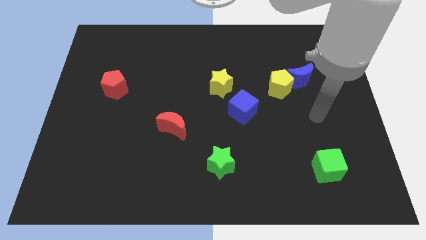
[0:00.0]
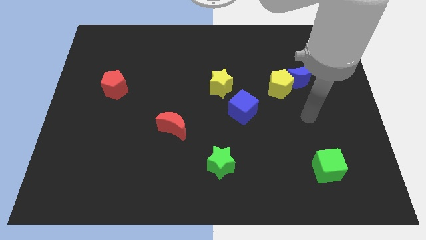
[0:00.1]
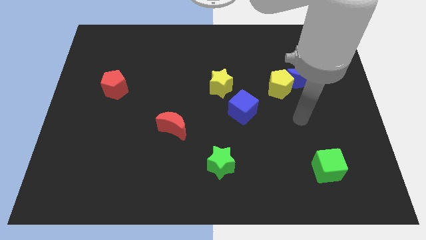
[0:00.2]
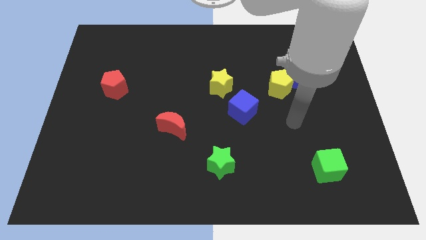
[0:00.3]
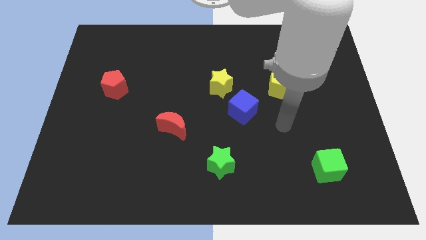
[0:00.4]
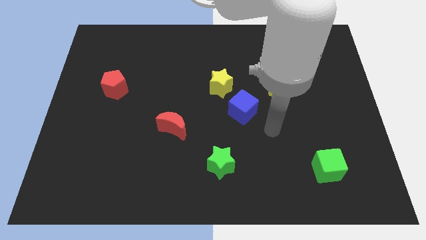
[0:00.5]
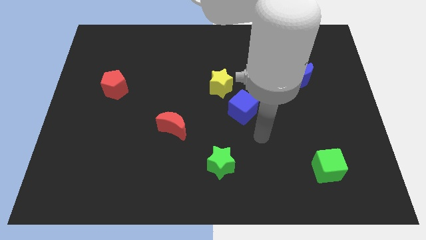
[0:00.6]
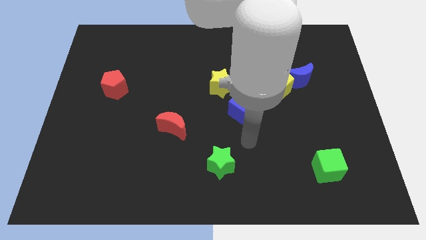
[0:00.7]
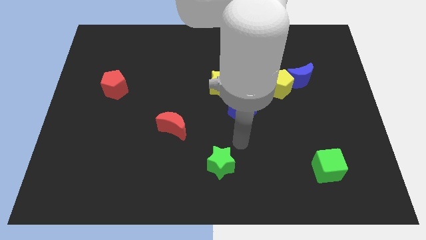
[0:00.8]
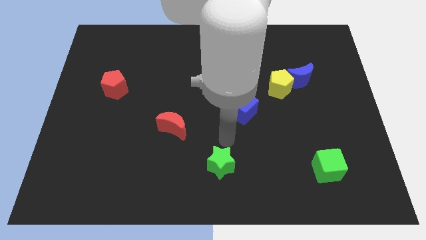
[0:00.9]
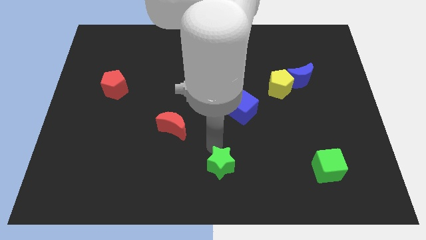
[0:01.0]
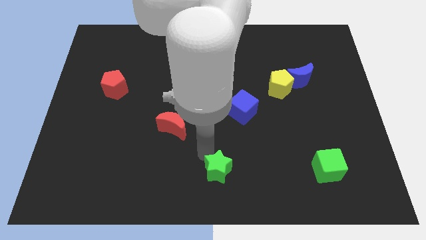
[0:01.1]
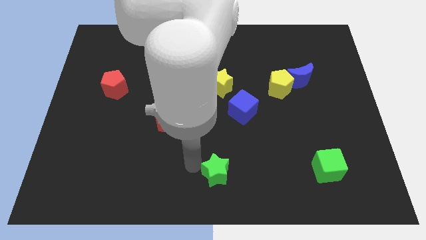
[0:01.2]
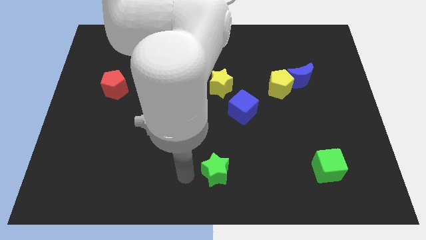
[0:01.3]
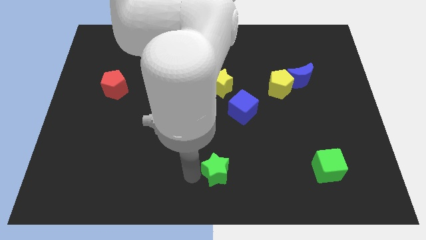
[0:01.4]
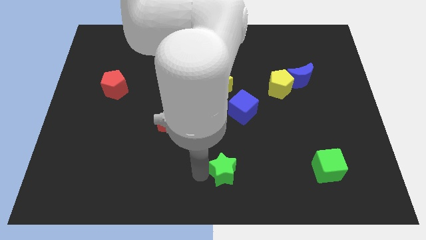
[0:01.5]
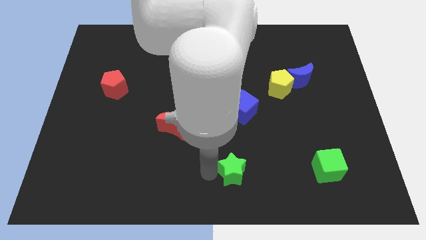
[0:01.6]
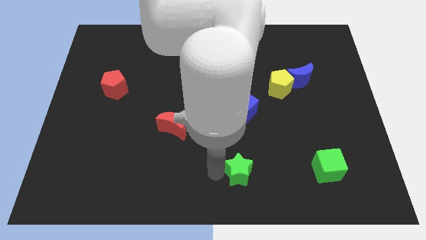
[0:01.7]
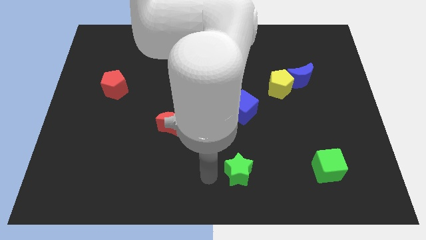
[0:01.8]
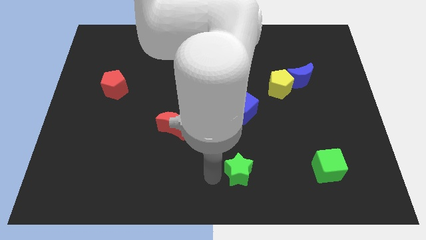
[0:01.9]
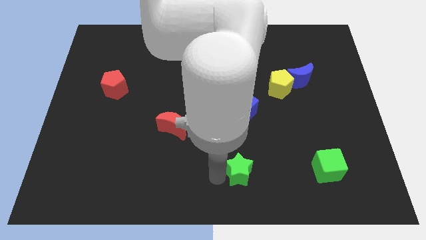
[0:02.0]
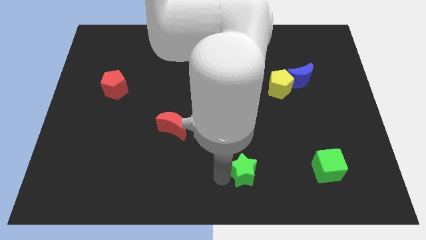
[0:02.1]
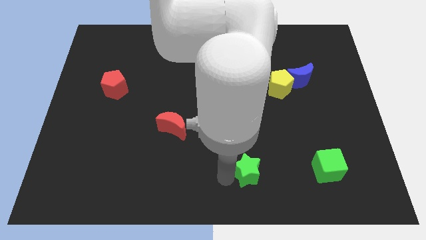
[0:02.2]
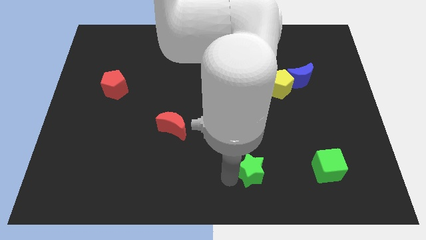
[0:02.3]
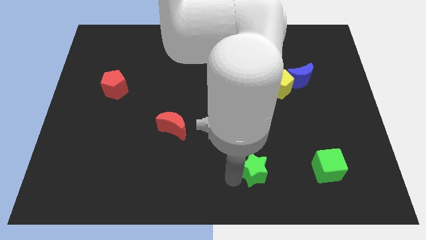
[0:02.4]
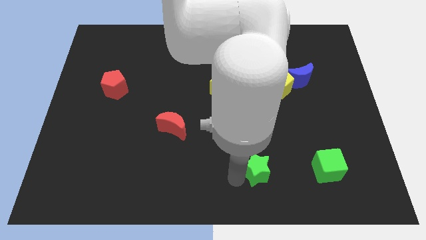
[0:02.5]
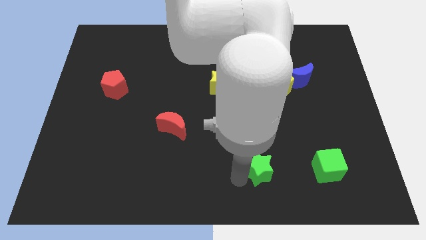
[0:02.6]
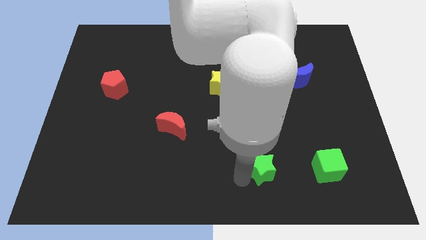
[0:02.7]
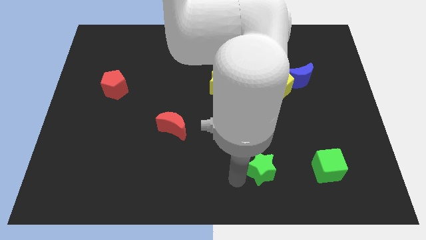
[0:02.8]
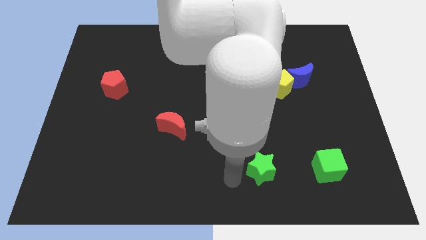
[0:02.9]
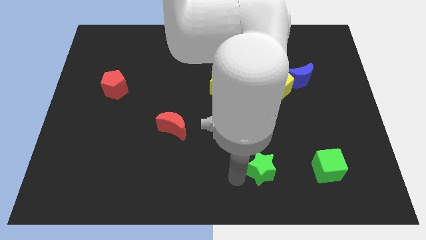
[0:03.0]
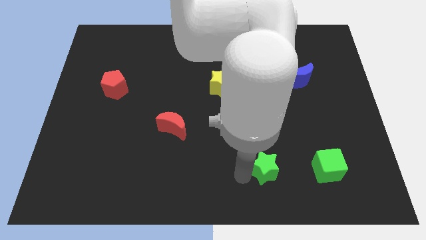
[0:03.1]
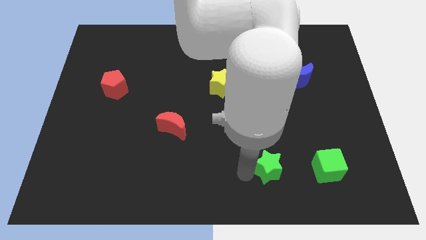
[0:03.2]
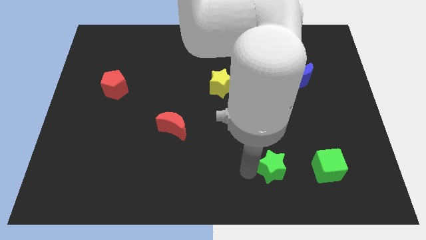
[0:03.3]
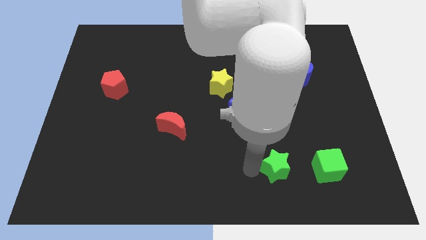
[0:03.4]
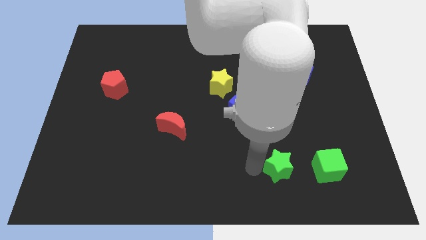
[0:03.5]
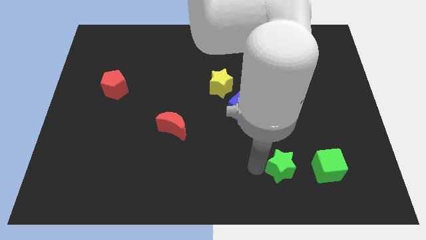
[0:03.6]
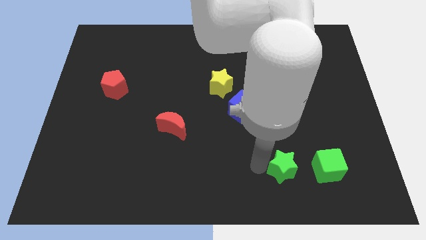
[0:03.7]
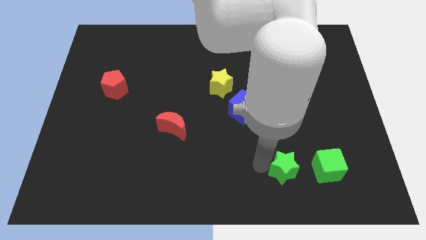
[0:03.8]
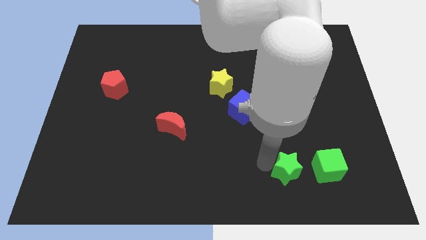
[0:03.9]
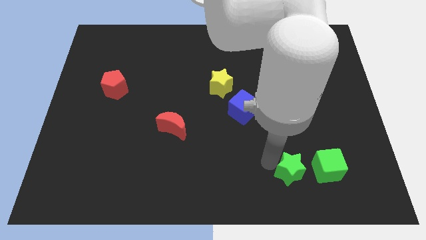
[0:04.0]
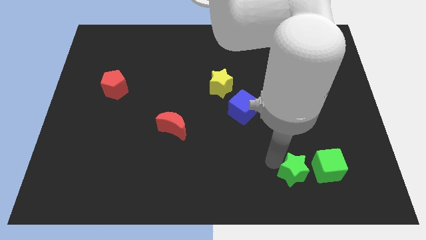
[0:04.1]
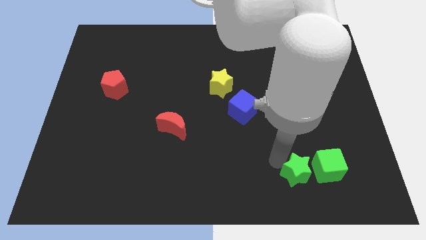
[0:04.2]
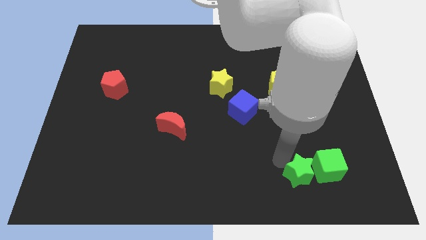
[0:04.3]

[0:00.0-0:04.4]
move the green star towards the green cube

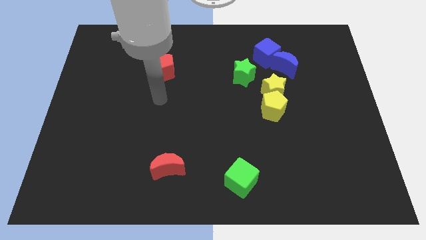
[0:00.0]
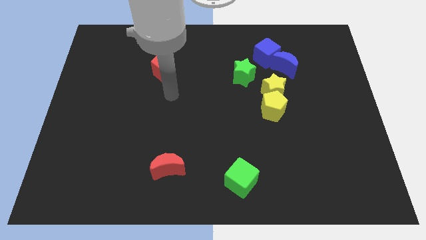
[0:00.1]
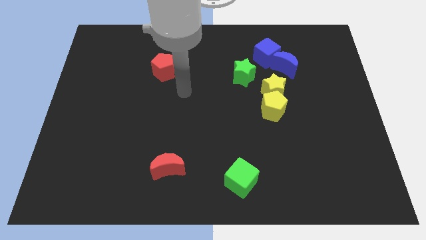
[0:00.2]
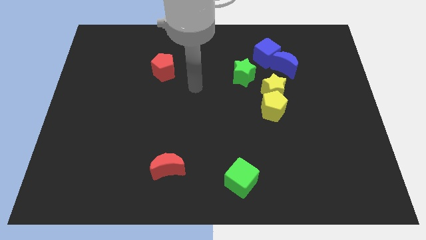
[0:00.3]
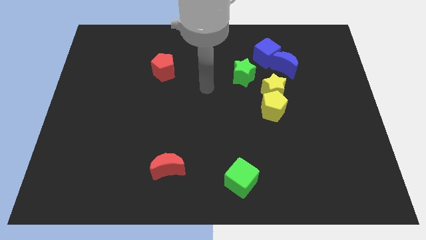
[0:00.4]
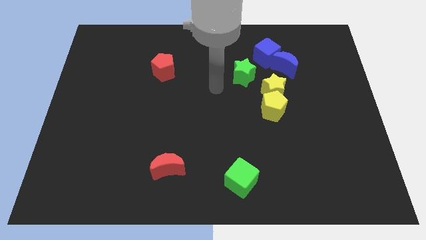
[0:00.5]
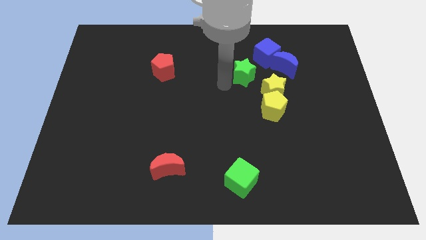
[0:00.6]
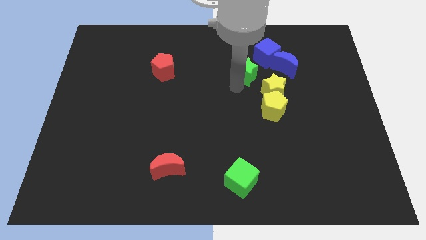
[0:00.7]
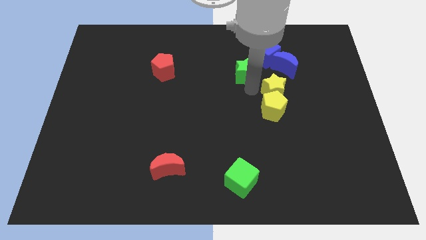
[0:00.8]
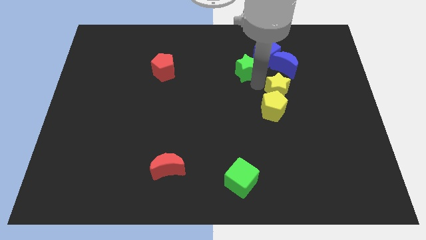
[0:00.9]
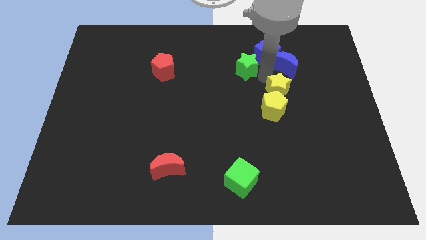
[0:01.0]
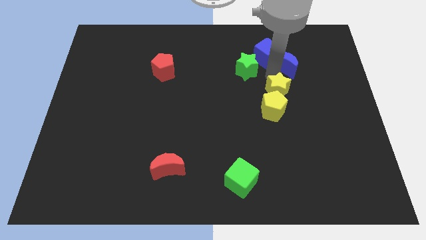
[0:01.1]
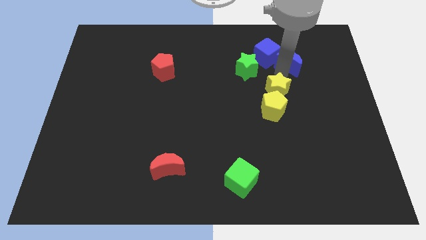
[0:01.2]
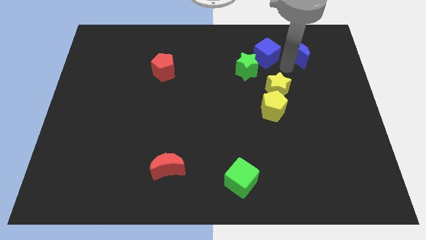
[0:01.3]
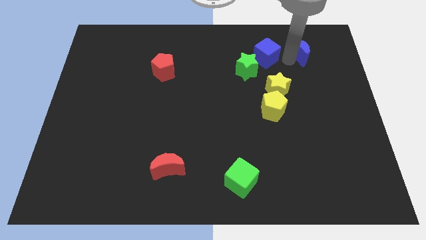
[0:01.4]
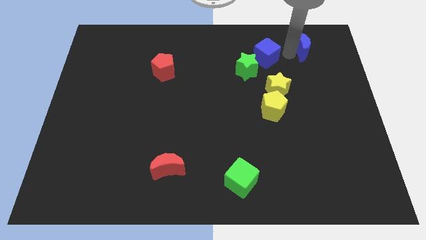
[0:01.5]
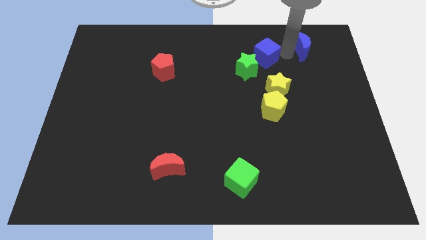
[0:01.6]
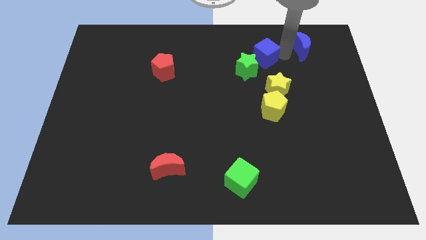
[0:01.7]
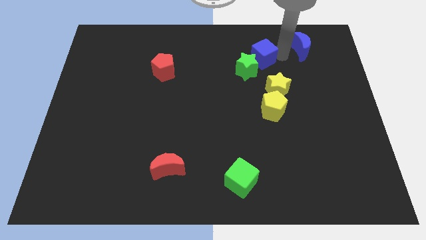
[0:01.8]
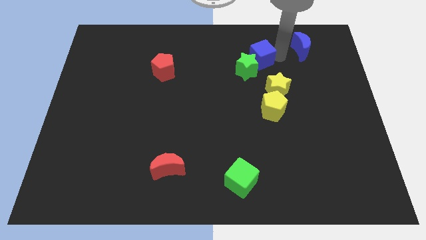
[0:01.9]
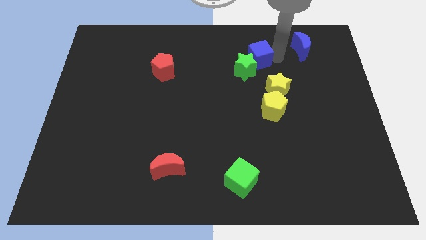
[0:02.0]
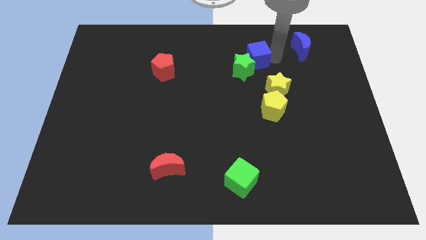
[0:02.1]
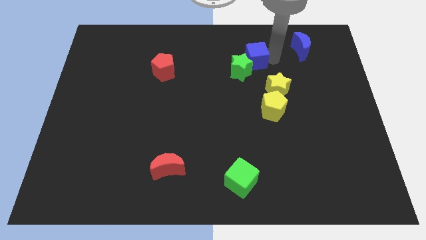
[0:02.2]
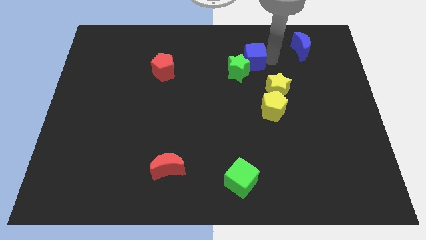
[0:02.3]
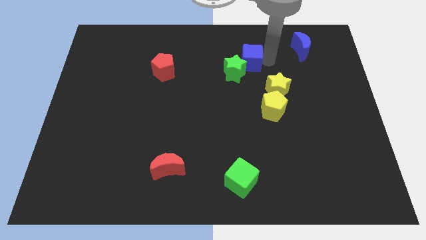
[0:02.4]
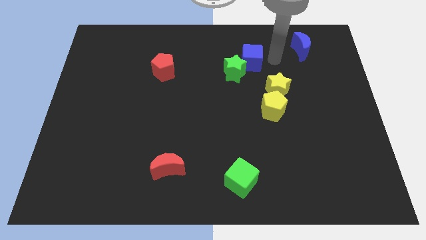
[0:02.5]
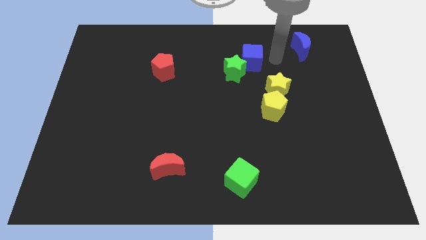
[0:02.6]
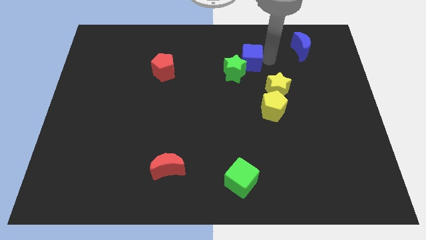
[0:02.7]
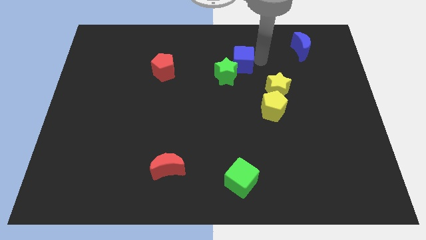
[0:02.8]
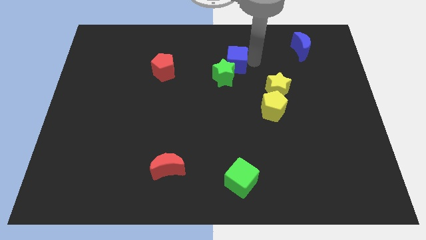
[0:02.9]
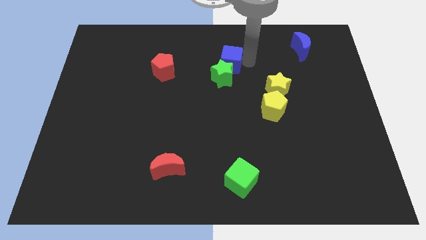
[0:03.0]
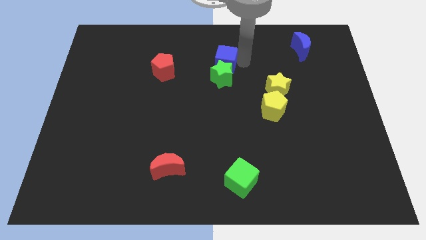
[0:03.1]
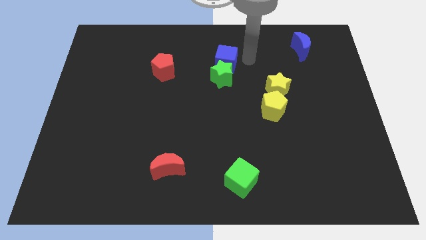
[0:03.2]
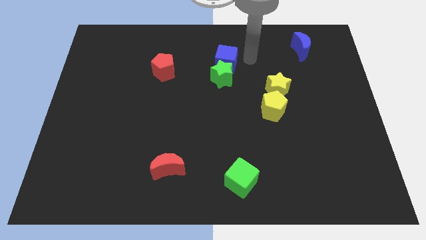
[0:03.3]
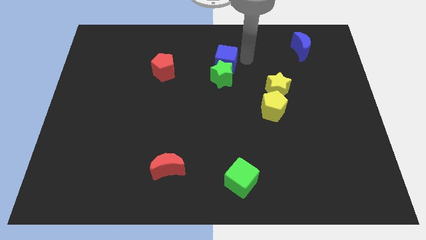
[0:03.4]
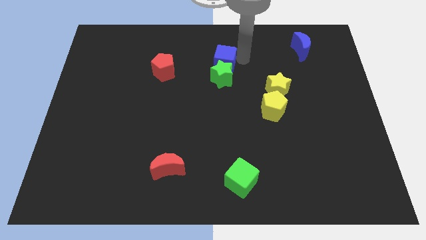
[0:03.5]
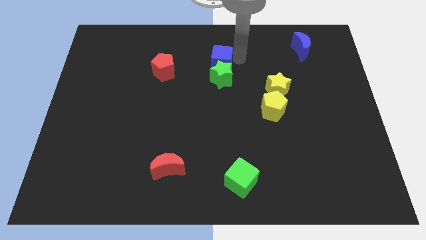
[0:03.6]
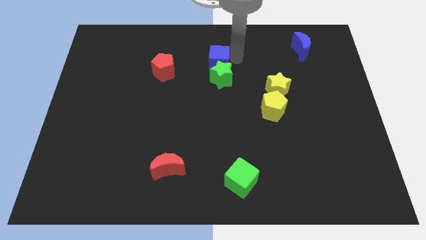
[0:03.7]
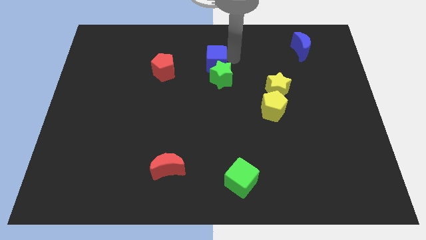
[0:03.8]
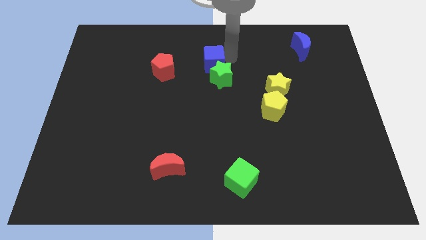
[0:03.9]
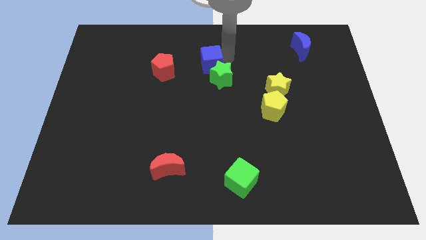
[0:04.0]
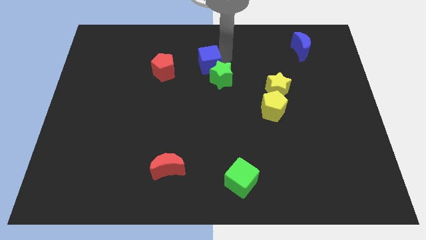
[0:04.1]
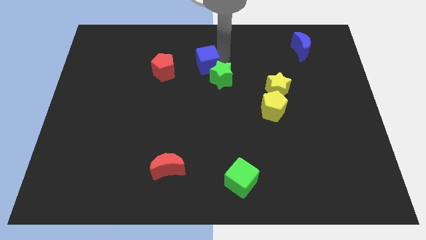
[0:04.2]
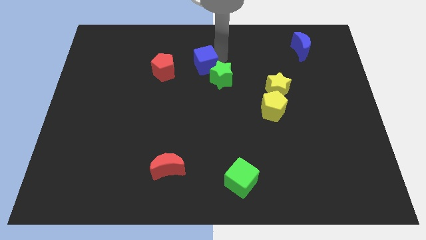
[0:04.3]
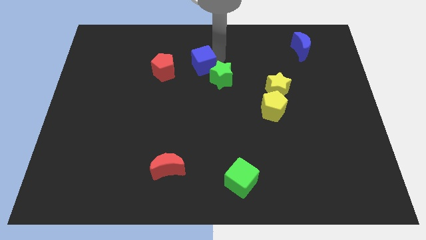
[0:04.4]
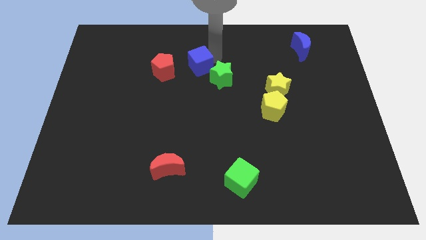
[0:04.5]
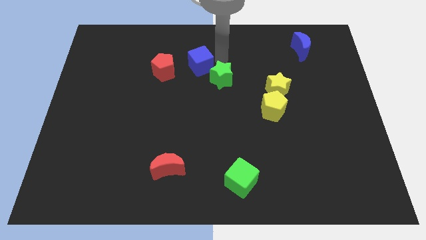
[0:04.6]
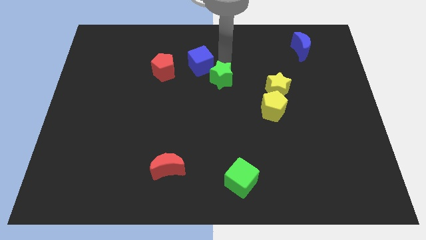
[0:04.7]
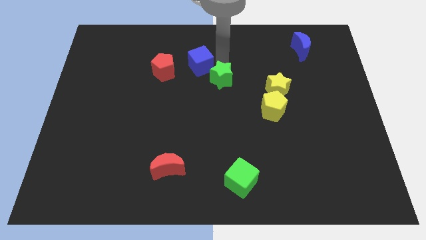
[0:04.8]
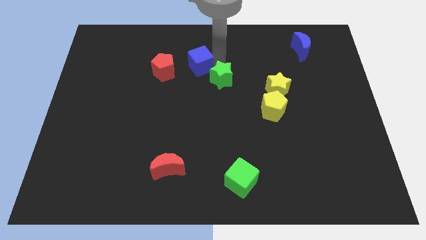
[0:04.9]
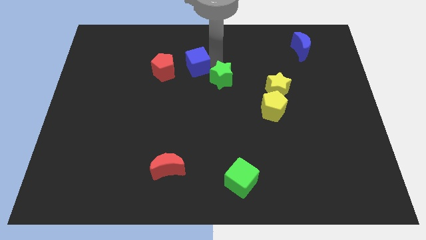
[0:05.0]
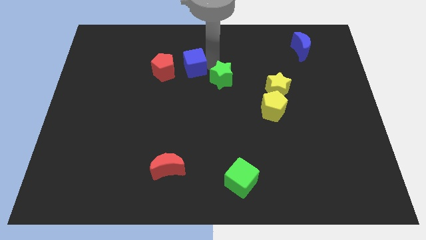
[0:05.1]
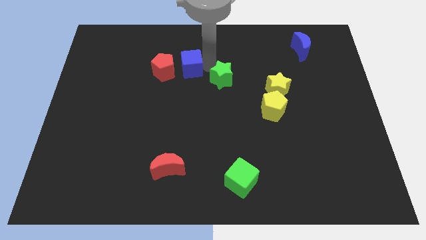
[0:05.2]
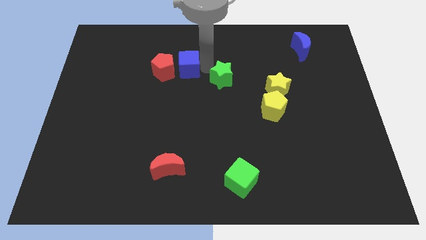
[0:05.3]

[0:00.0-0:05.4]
move the blue cube to the red pentagon
